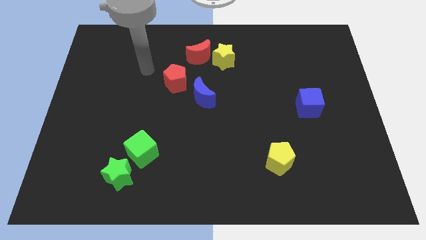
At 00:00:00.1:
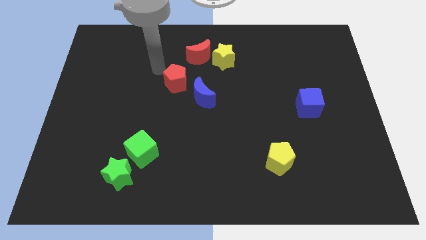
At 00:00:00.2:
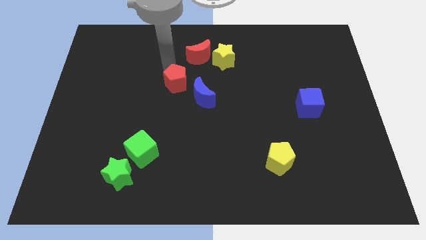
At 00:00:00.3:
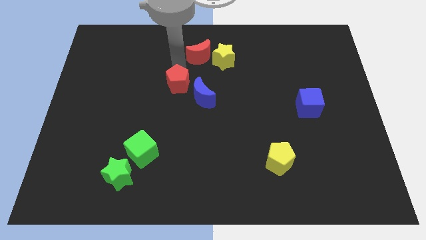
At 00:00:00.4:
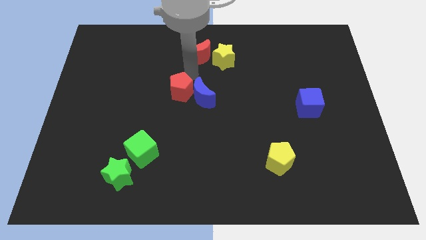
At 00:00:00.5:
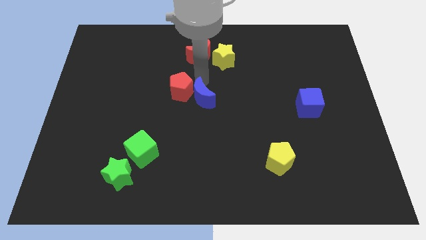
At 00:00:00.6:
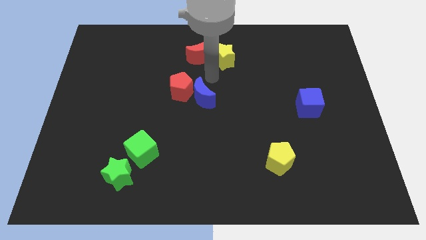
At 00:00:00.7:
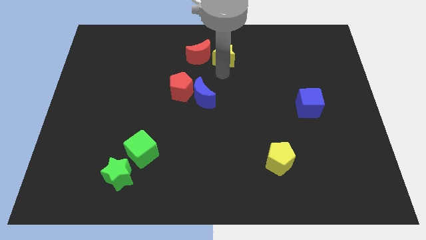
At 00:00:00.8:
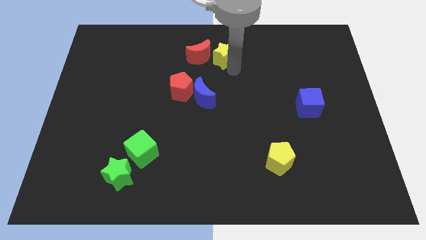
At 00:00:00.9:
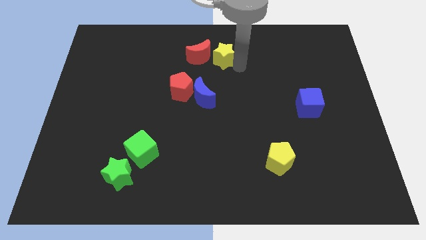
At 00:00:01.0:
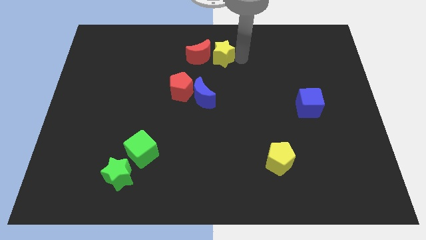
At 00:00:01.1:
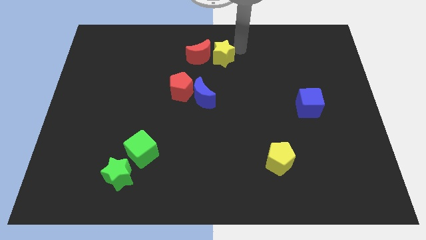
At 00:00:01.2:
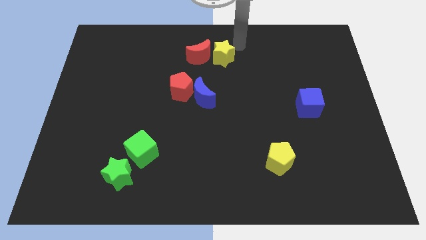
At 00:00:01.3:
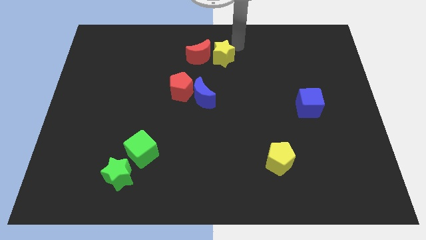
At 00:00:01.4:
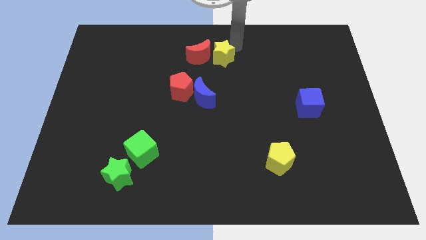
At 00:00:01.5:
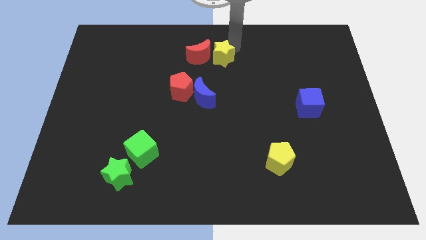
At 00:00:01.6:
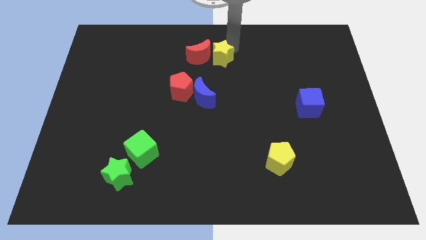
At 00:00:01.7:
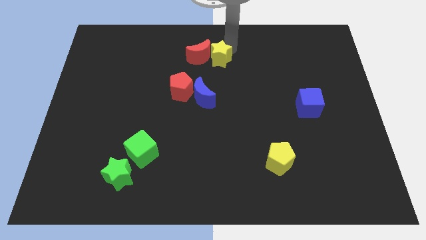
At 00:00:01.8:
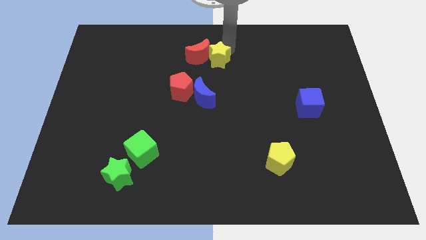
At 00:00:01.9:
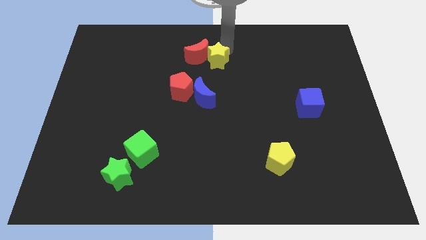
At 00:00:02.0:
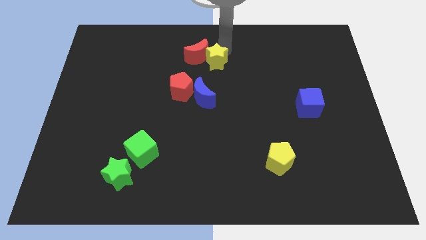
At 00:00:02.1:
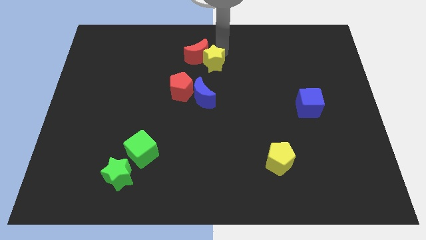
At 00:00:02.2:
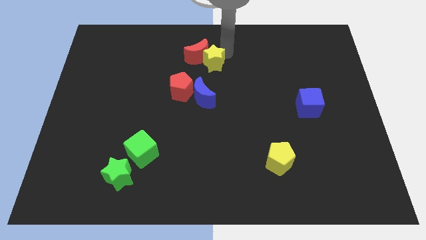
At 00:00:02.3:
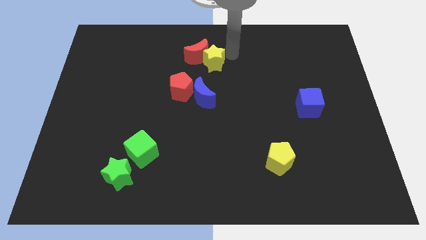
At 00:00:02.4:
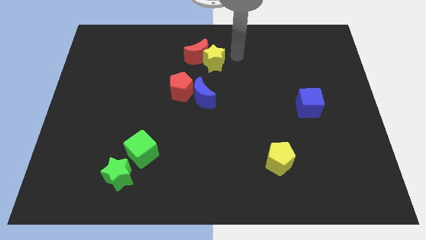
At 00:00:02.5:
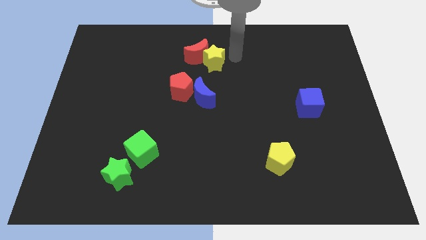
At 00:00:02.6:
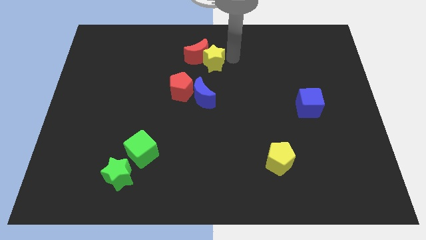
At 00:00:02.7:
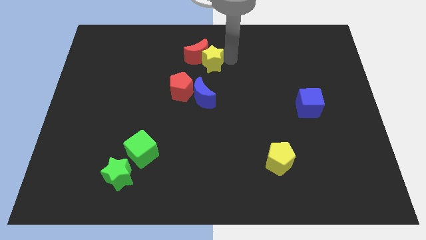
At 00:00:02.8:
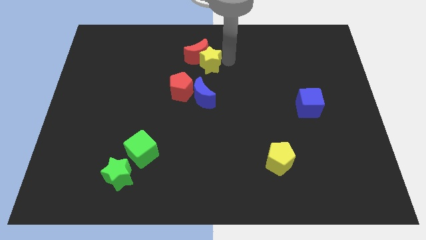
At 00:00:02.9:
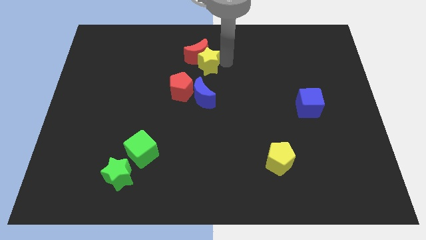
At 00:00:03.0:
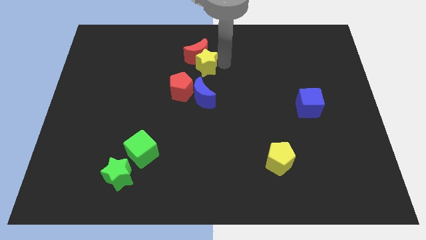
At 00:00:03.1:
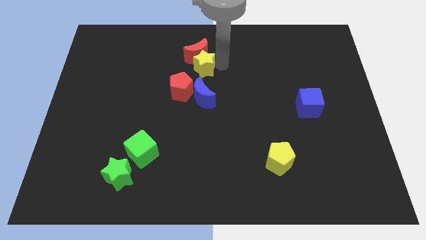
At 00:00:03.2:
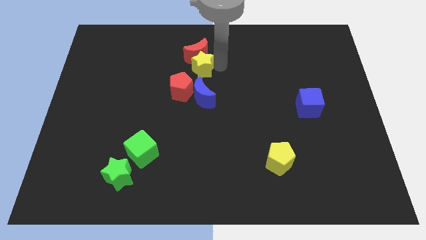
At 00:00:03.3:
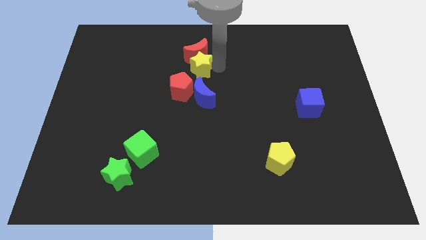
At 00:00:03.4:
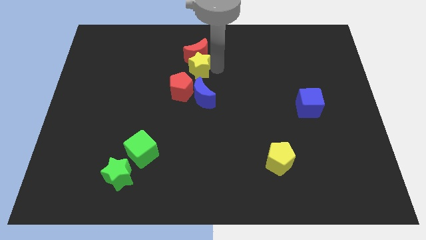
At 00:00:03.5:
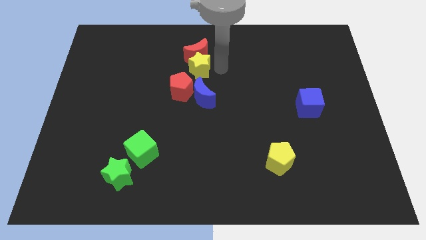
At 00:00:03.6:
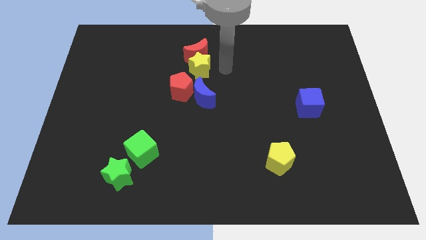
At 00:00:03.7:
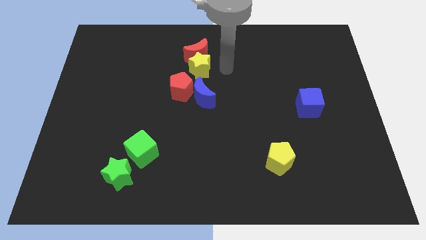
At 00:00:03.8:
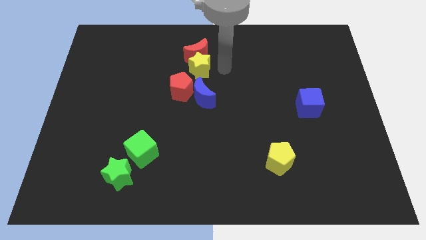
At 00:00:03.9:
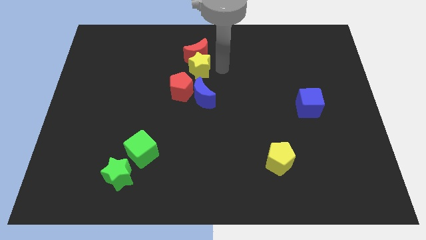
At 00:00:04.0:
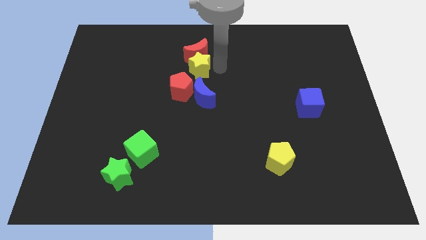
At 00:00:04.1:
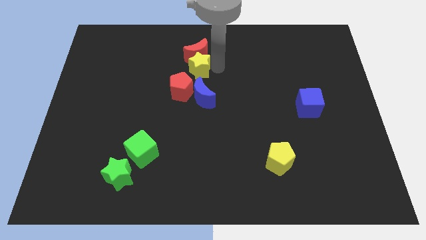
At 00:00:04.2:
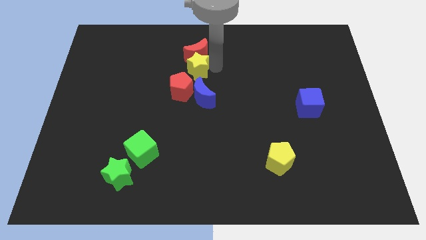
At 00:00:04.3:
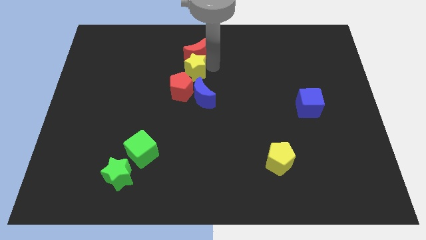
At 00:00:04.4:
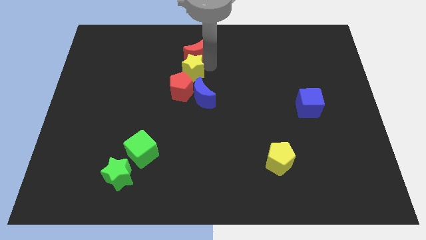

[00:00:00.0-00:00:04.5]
move the yellow star left somewhat

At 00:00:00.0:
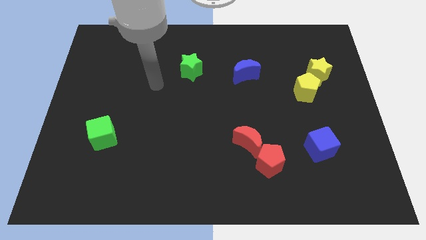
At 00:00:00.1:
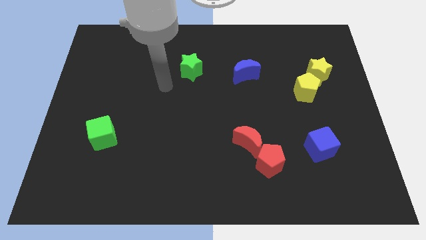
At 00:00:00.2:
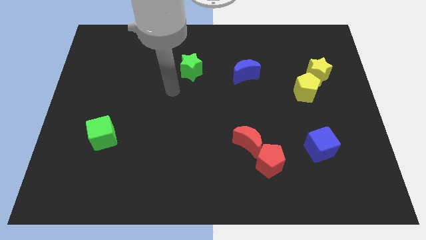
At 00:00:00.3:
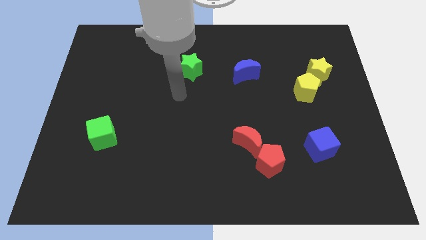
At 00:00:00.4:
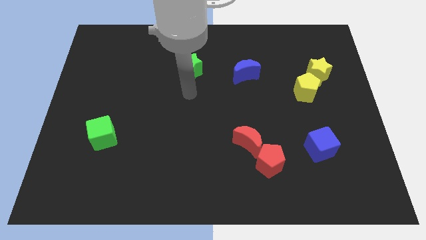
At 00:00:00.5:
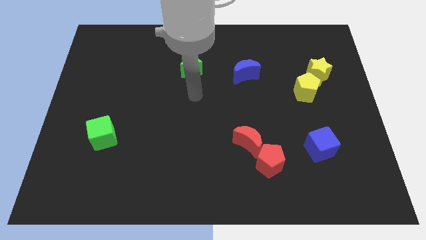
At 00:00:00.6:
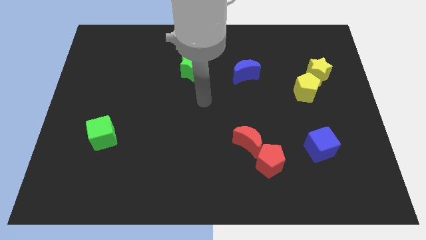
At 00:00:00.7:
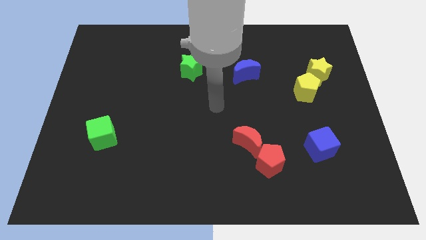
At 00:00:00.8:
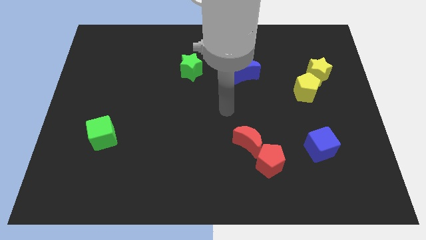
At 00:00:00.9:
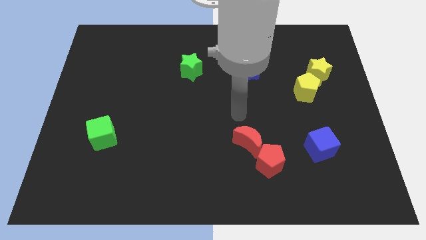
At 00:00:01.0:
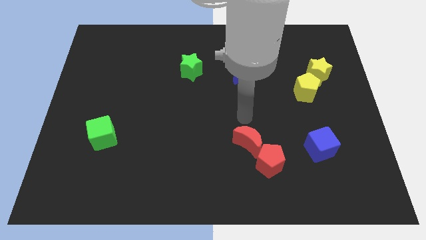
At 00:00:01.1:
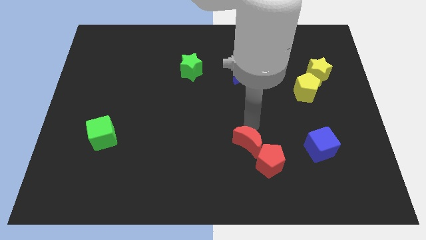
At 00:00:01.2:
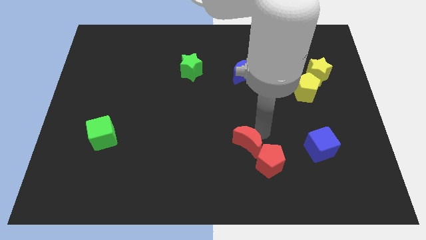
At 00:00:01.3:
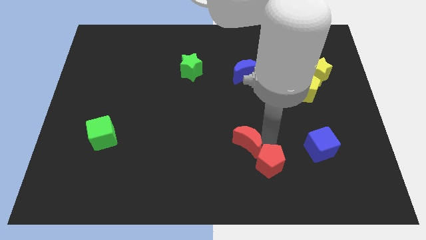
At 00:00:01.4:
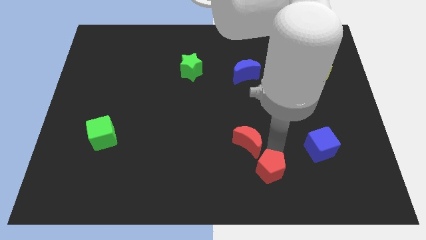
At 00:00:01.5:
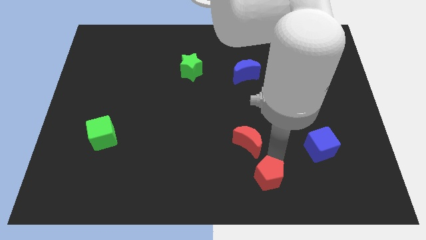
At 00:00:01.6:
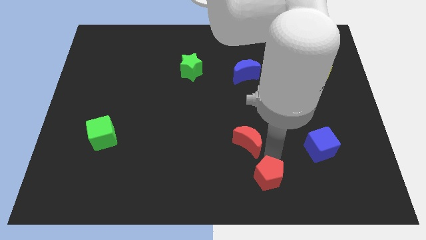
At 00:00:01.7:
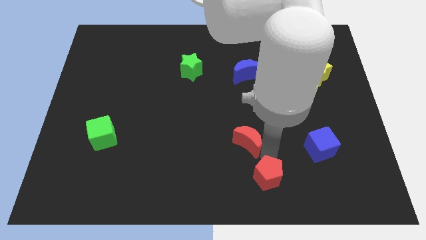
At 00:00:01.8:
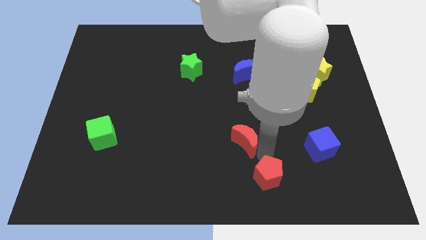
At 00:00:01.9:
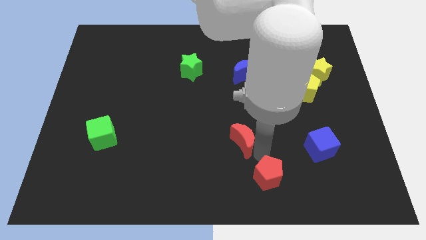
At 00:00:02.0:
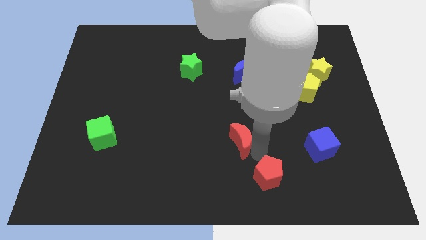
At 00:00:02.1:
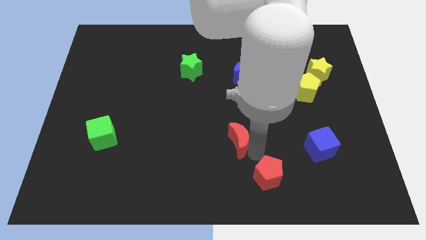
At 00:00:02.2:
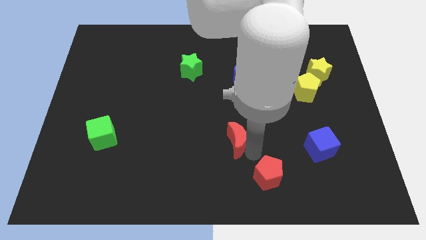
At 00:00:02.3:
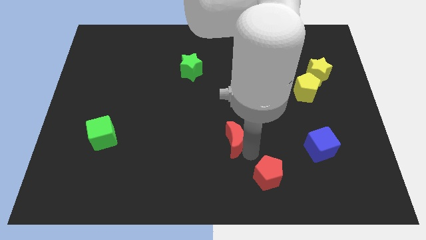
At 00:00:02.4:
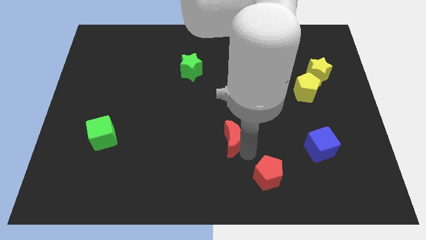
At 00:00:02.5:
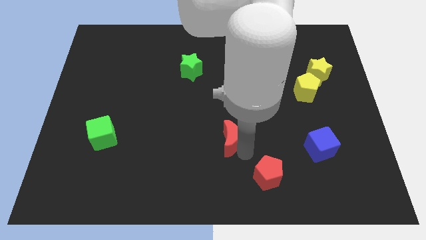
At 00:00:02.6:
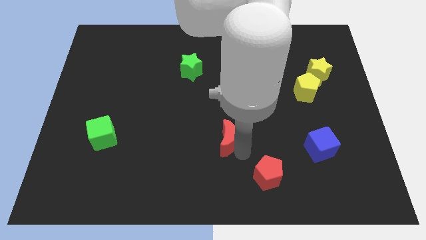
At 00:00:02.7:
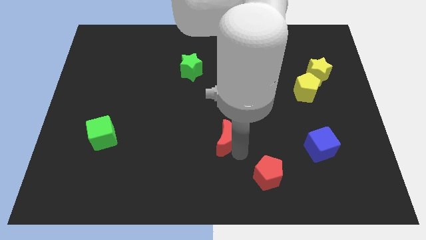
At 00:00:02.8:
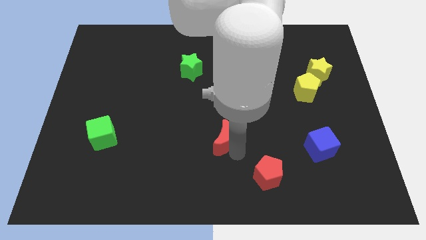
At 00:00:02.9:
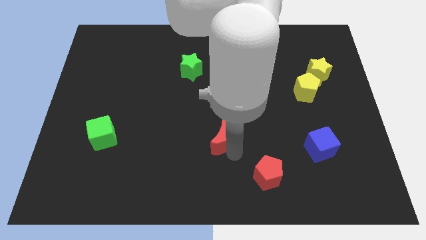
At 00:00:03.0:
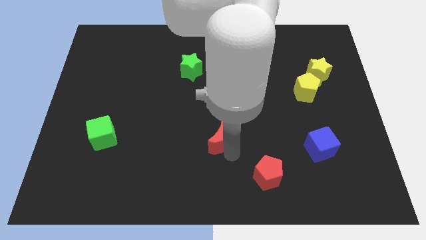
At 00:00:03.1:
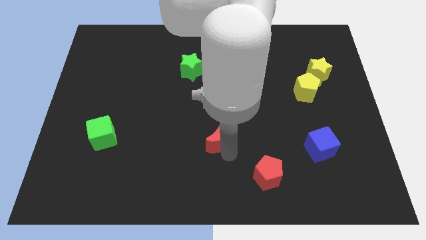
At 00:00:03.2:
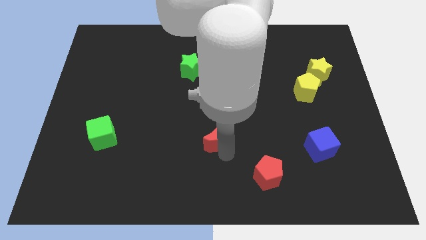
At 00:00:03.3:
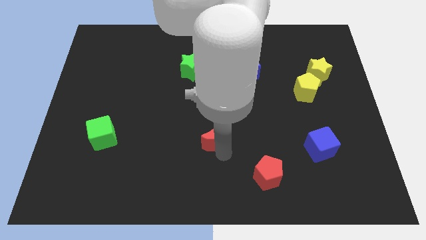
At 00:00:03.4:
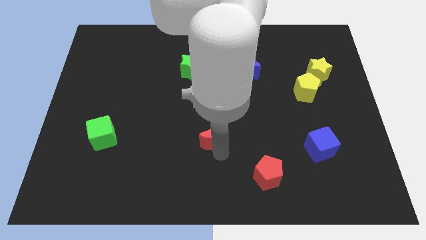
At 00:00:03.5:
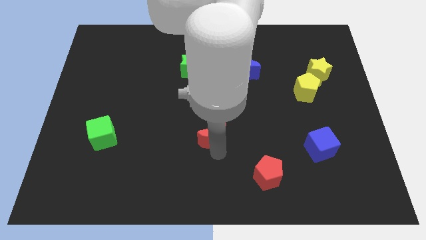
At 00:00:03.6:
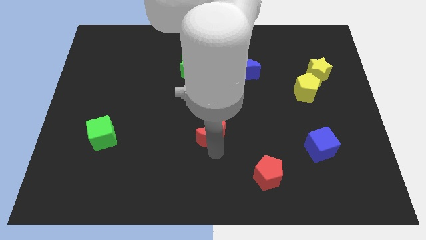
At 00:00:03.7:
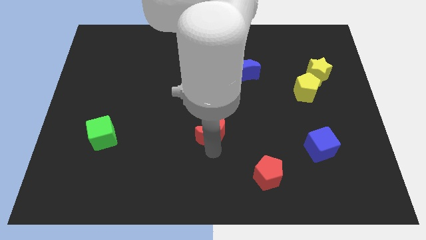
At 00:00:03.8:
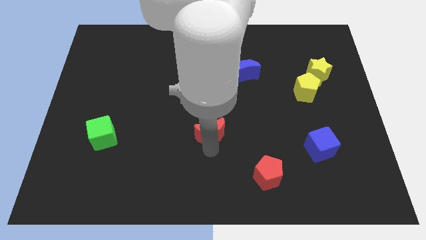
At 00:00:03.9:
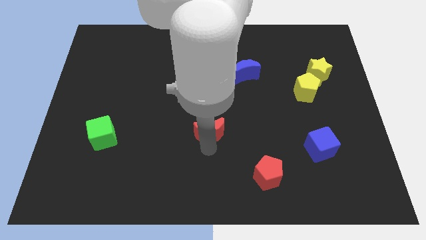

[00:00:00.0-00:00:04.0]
slightly push the red moon upwards and left diagonally
